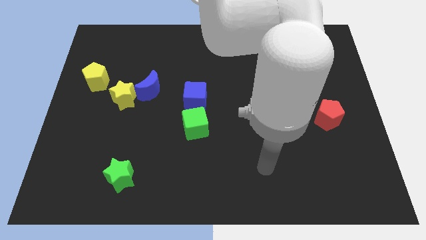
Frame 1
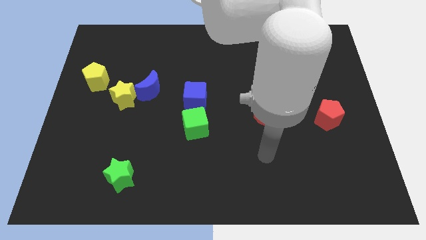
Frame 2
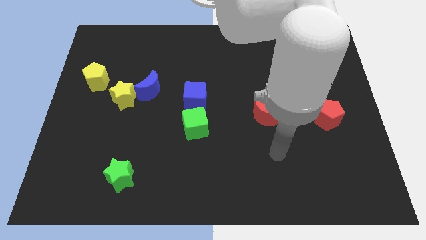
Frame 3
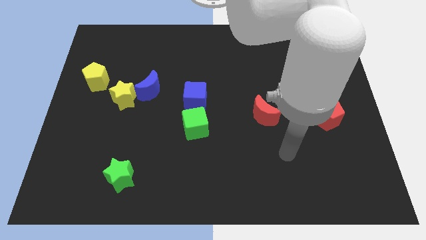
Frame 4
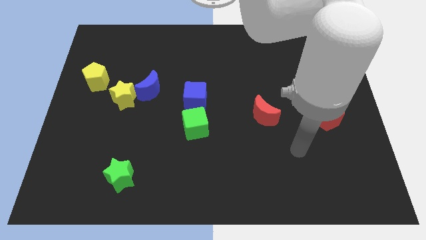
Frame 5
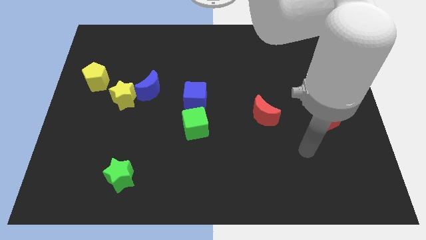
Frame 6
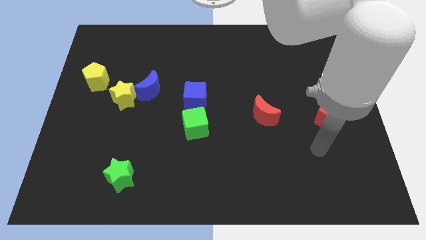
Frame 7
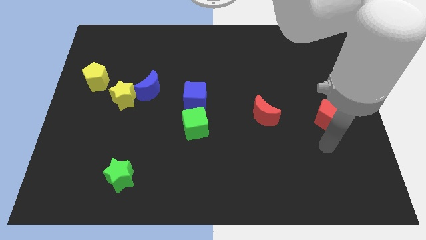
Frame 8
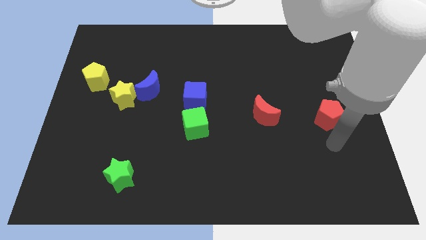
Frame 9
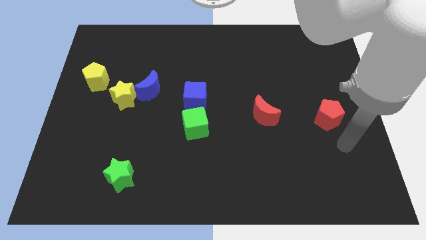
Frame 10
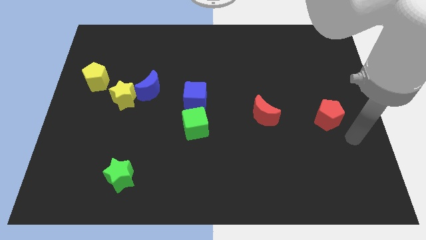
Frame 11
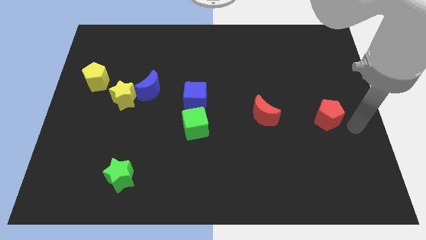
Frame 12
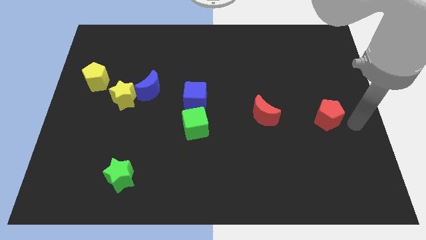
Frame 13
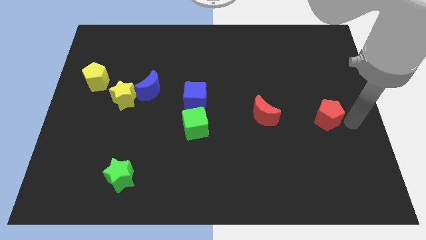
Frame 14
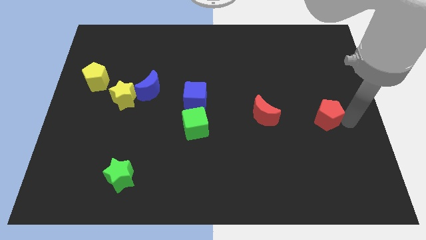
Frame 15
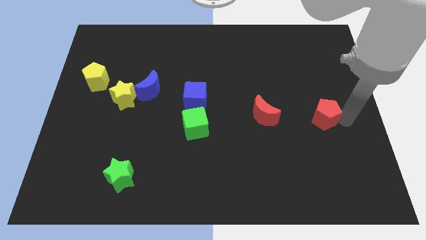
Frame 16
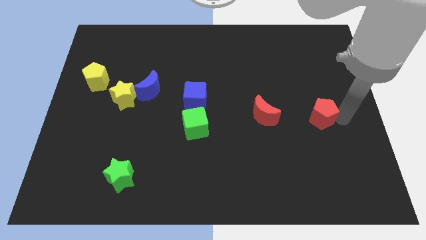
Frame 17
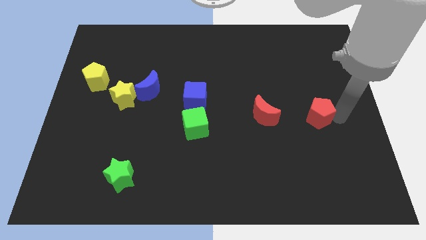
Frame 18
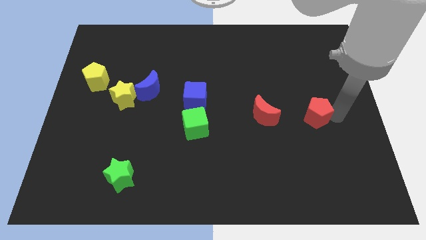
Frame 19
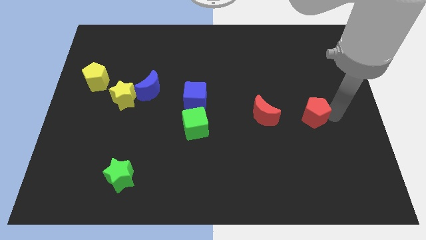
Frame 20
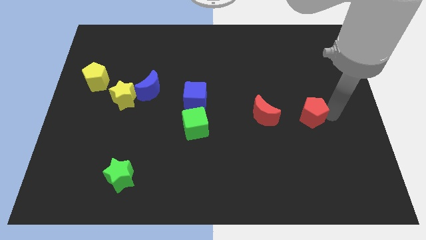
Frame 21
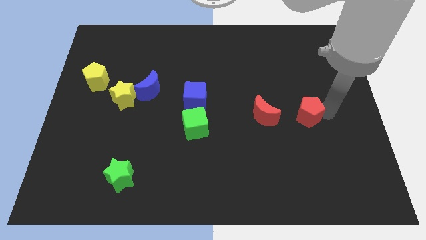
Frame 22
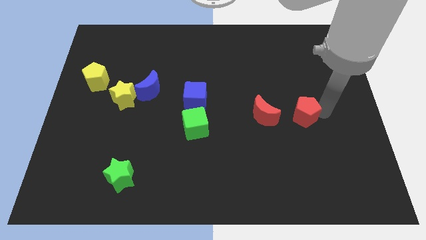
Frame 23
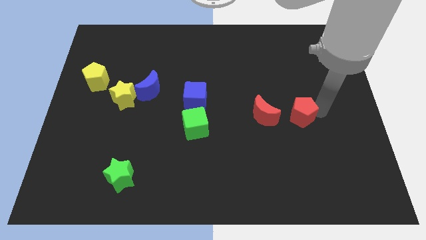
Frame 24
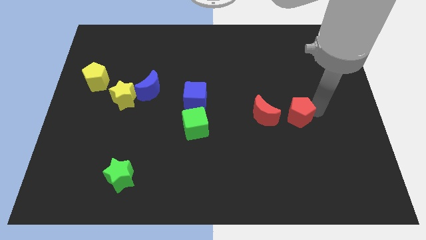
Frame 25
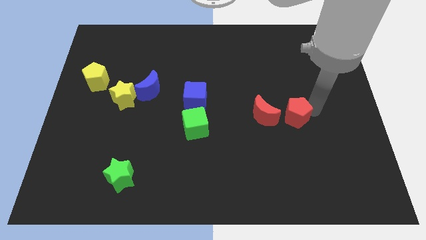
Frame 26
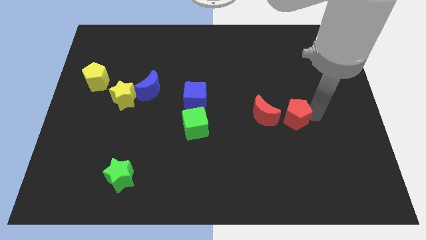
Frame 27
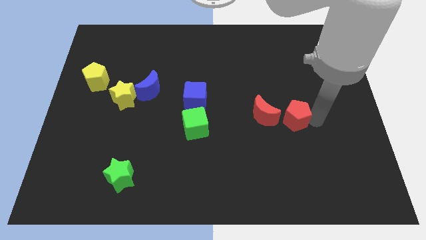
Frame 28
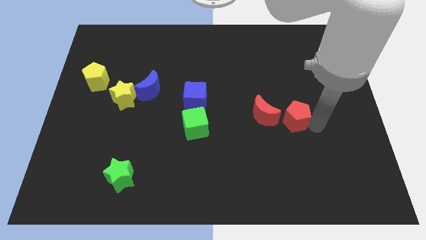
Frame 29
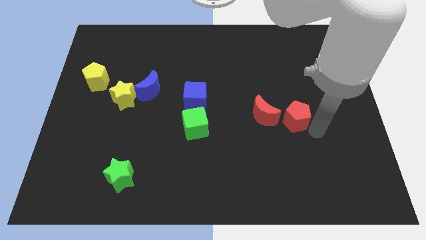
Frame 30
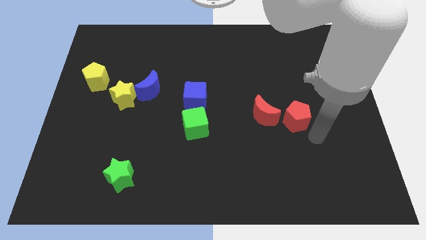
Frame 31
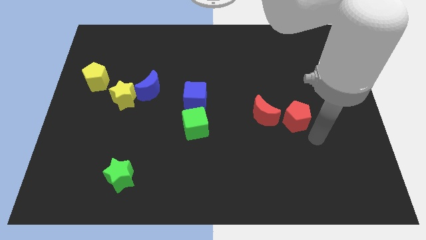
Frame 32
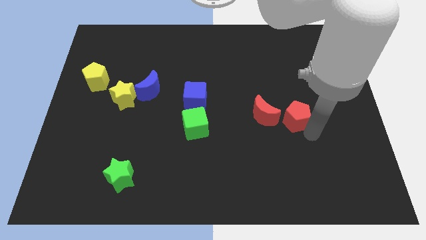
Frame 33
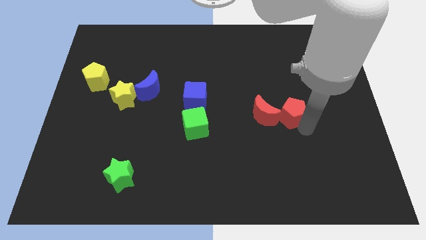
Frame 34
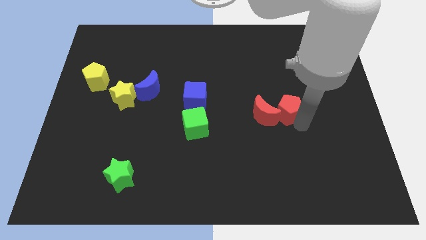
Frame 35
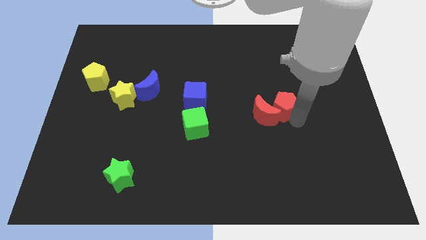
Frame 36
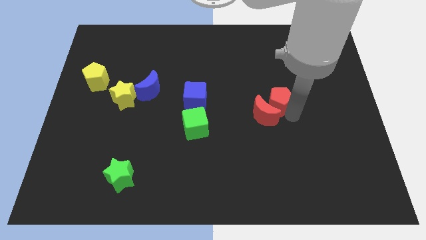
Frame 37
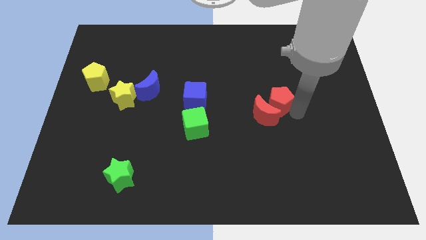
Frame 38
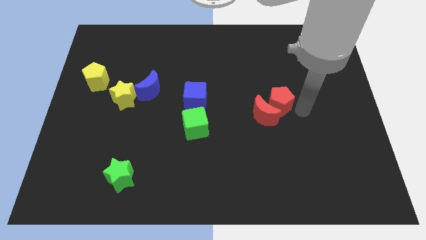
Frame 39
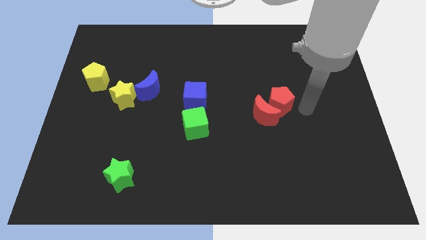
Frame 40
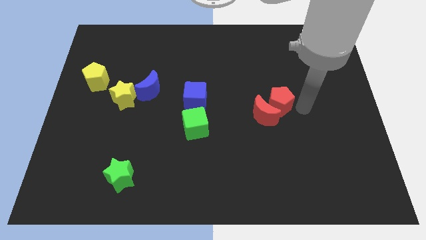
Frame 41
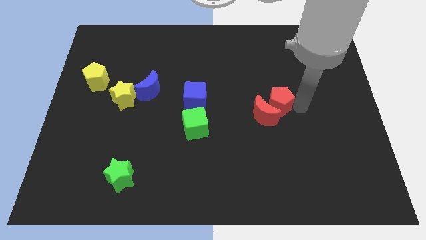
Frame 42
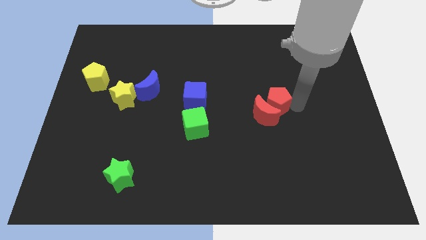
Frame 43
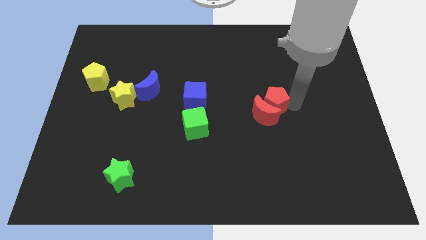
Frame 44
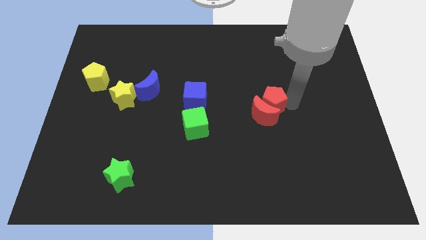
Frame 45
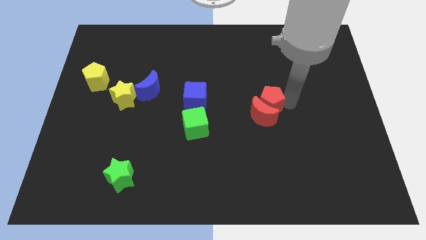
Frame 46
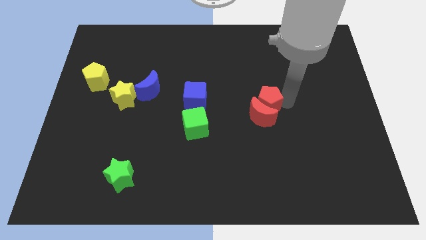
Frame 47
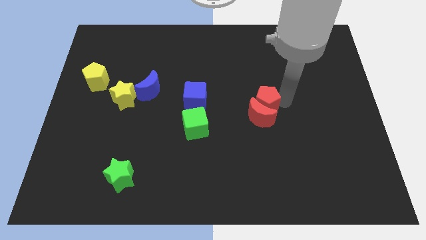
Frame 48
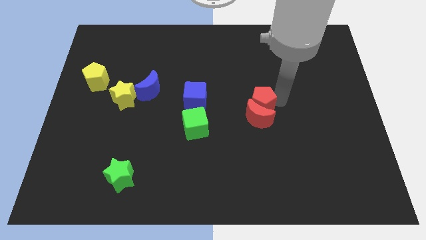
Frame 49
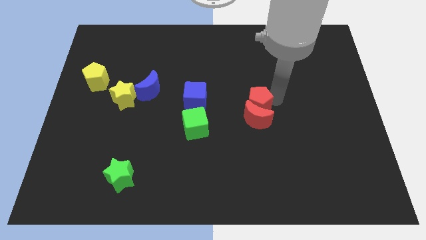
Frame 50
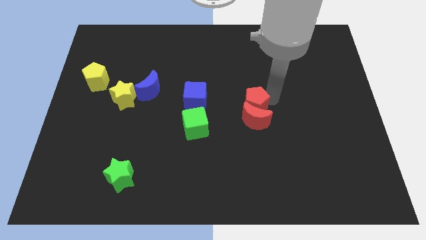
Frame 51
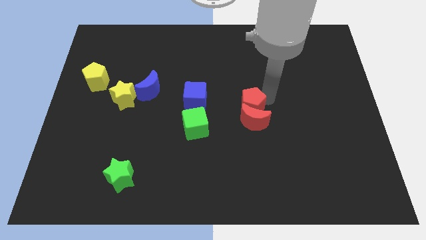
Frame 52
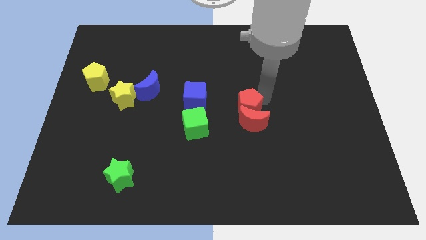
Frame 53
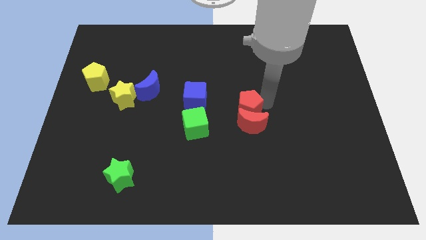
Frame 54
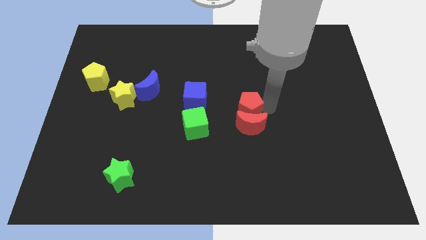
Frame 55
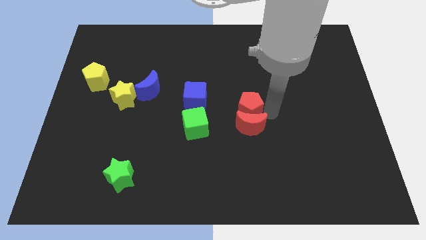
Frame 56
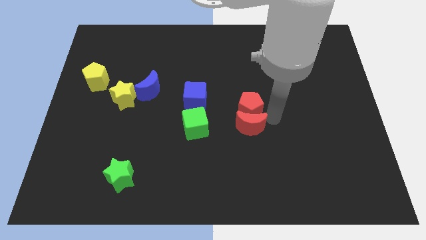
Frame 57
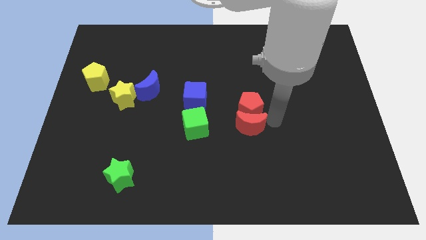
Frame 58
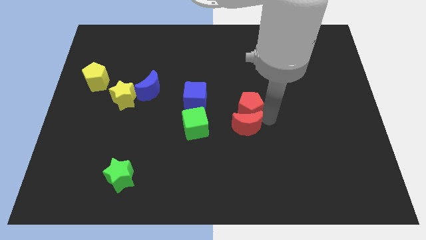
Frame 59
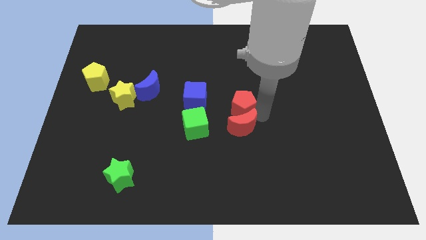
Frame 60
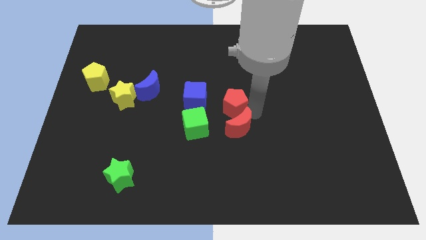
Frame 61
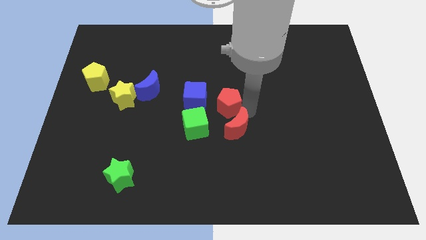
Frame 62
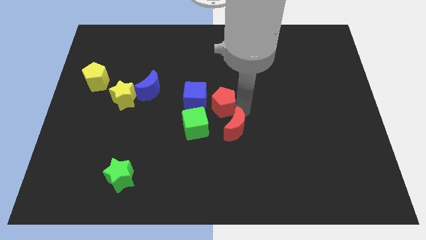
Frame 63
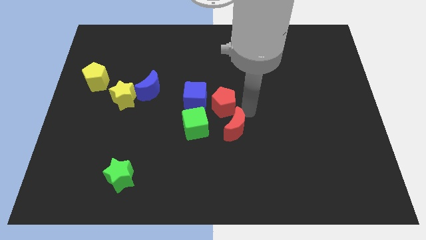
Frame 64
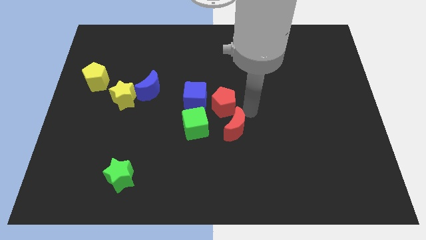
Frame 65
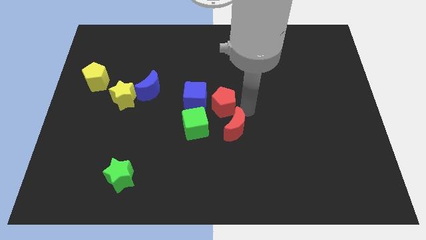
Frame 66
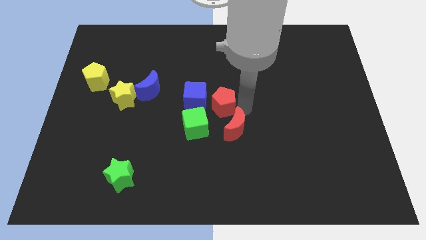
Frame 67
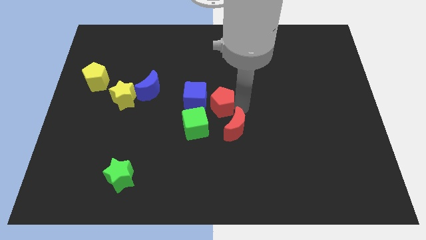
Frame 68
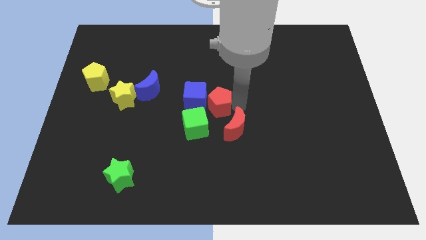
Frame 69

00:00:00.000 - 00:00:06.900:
move the red pentagon to the blue cube
